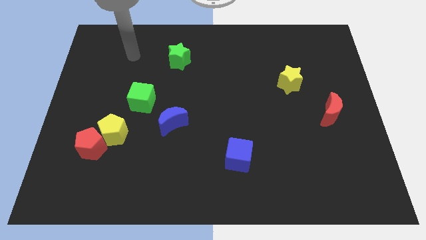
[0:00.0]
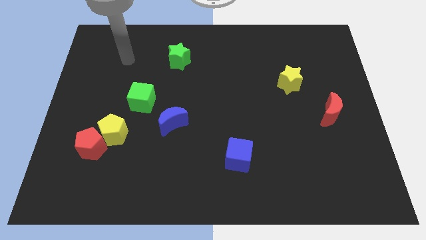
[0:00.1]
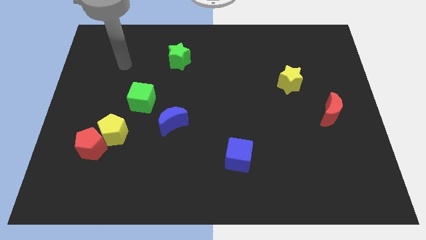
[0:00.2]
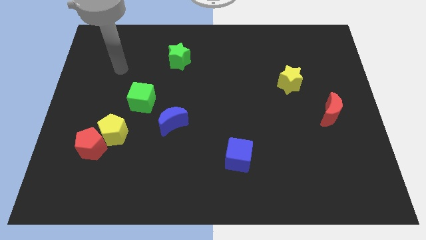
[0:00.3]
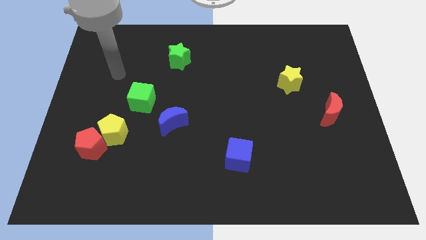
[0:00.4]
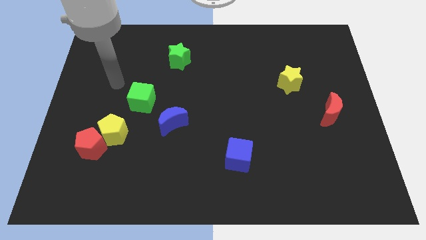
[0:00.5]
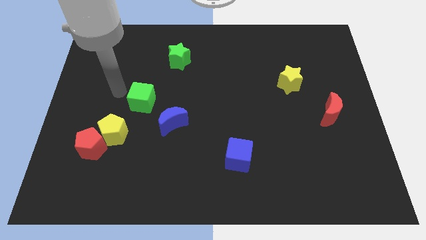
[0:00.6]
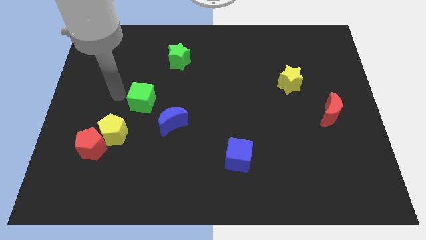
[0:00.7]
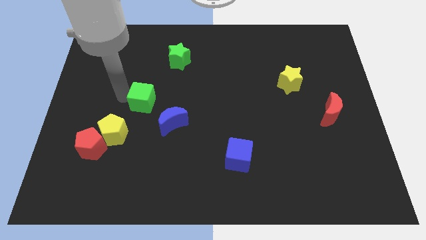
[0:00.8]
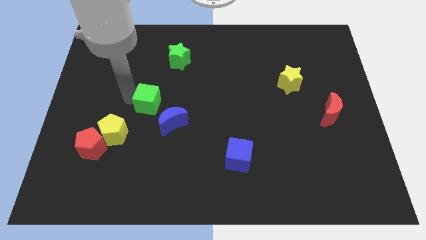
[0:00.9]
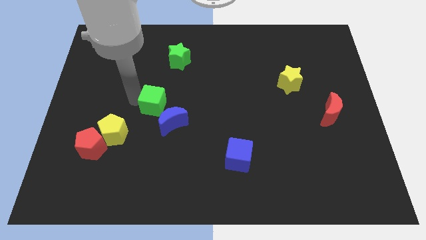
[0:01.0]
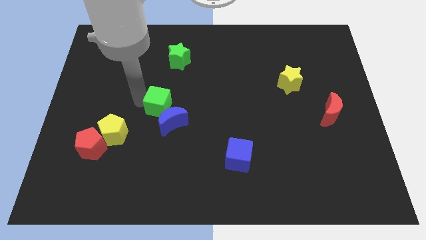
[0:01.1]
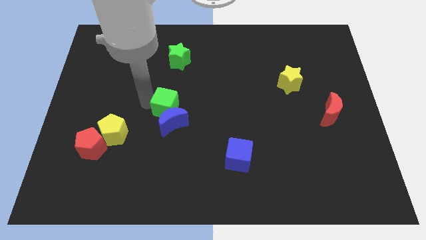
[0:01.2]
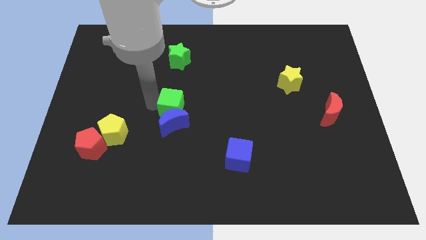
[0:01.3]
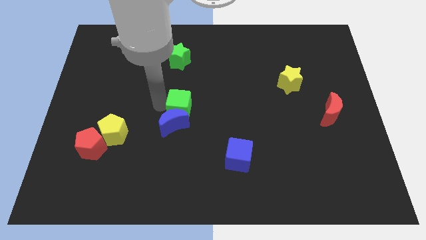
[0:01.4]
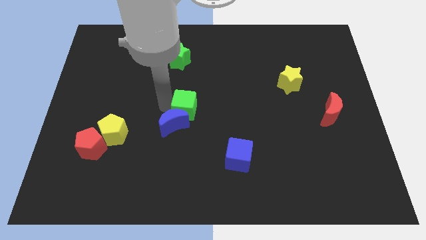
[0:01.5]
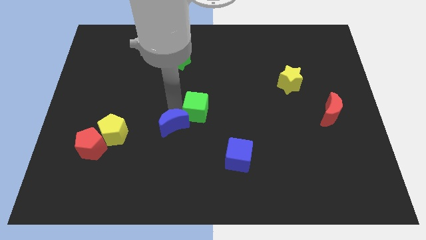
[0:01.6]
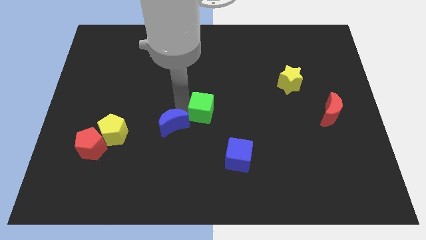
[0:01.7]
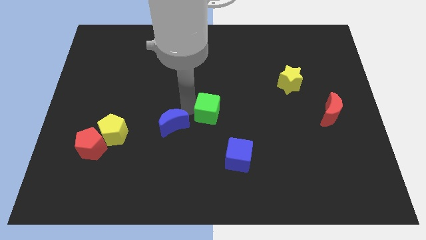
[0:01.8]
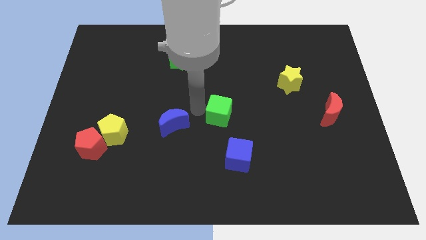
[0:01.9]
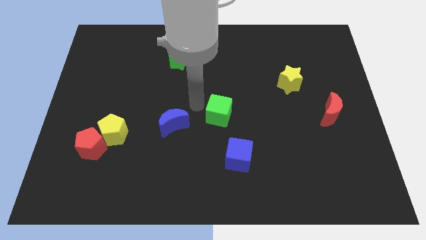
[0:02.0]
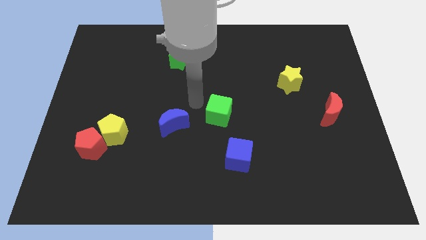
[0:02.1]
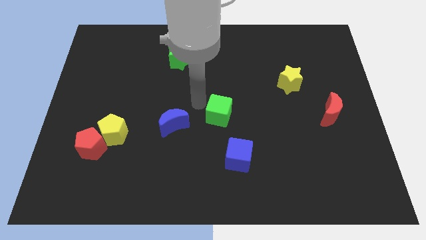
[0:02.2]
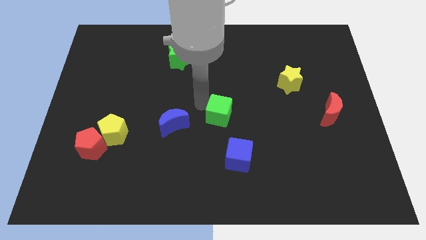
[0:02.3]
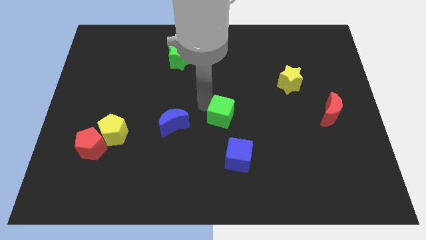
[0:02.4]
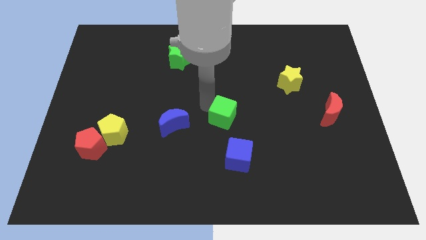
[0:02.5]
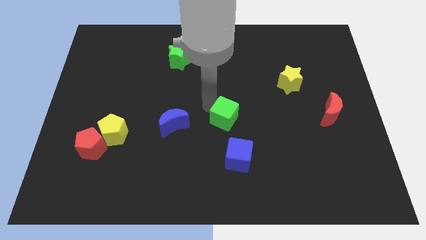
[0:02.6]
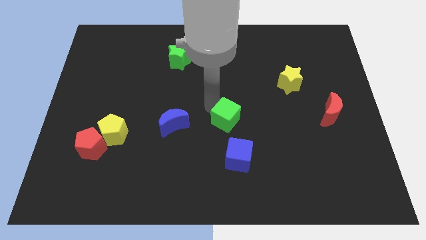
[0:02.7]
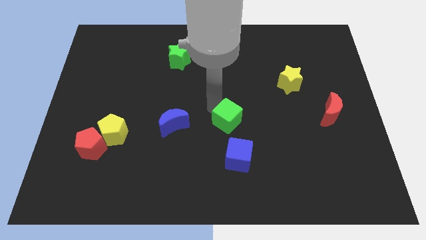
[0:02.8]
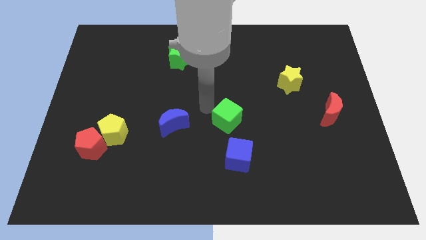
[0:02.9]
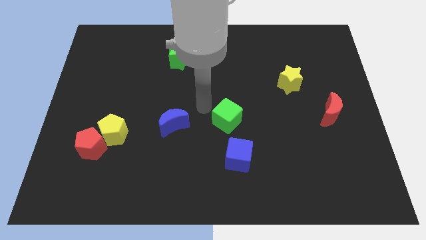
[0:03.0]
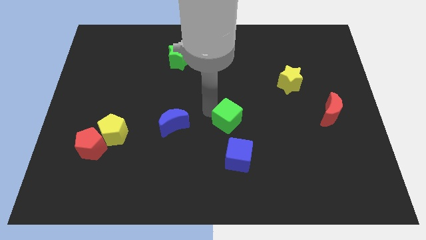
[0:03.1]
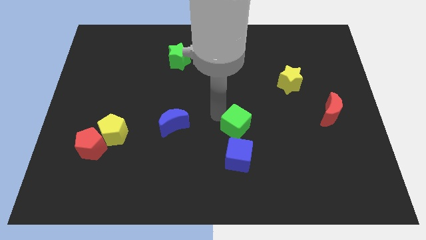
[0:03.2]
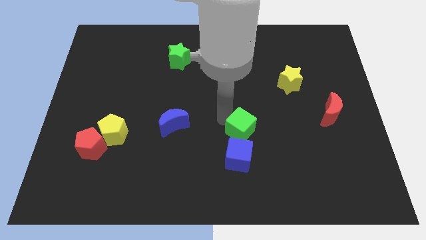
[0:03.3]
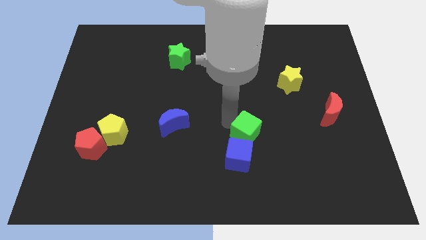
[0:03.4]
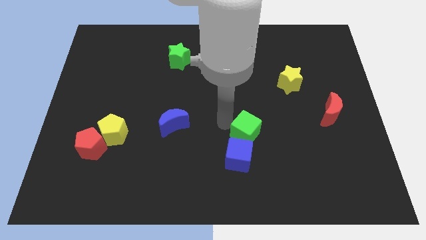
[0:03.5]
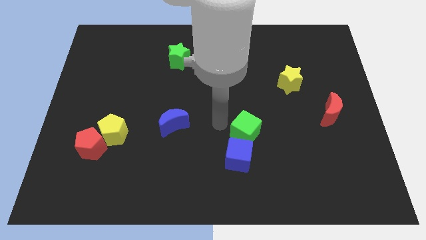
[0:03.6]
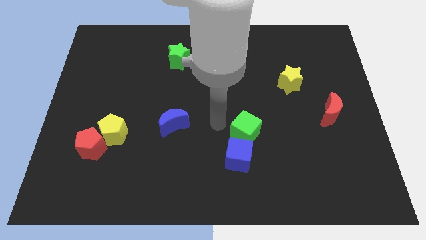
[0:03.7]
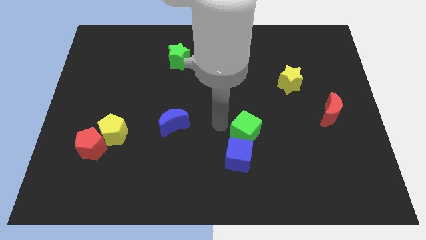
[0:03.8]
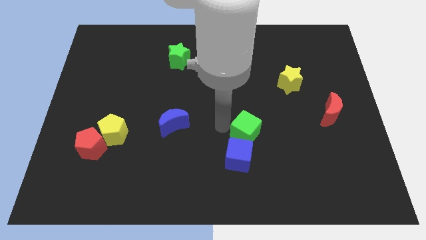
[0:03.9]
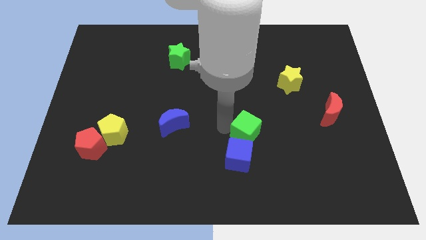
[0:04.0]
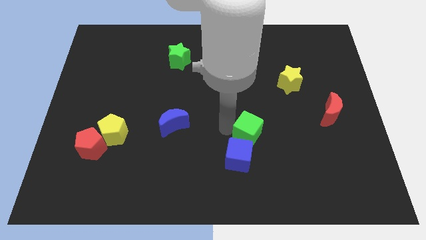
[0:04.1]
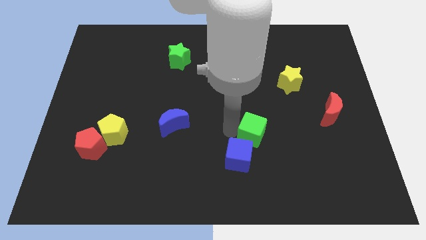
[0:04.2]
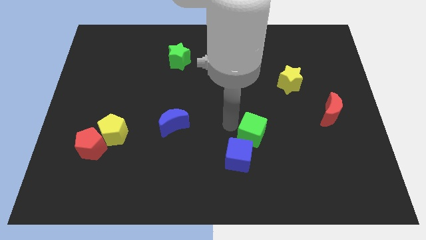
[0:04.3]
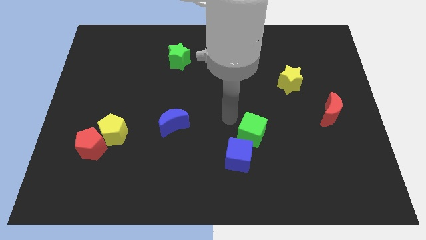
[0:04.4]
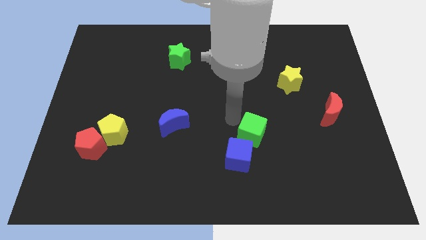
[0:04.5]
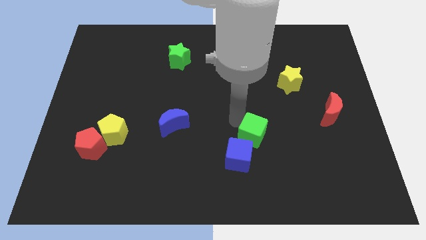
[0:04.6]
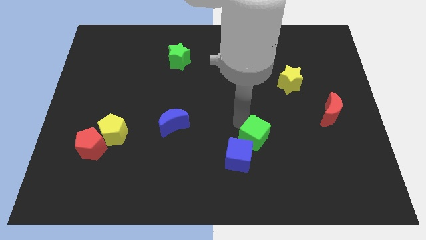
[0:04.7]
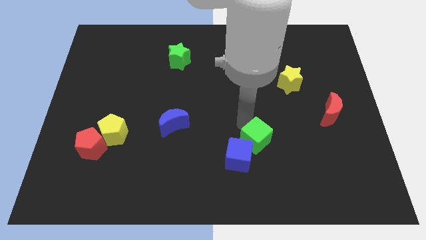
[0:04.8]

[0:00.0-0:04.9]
put the green cube to the right of the blue cube

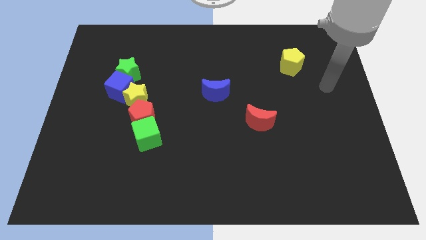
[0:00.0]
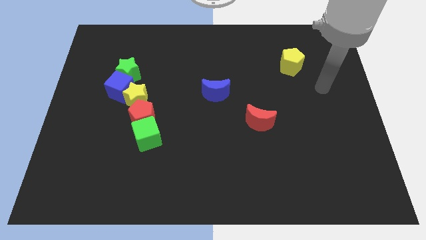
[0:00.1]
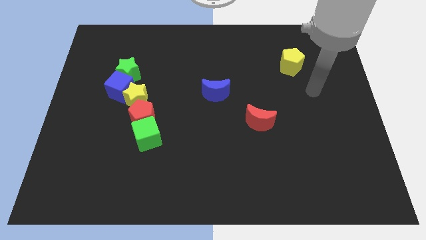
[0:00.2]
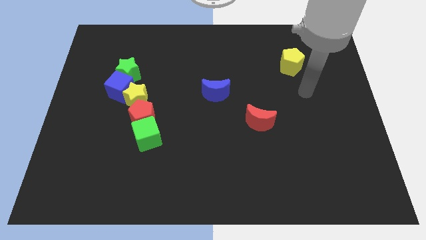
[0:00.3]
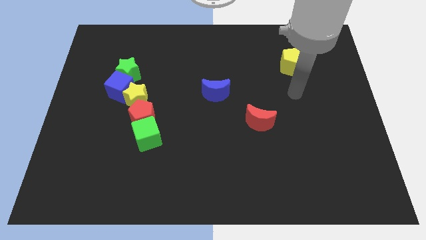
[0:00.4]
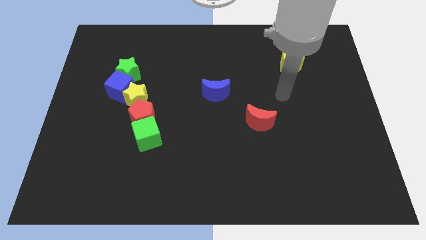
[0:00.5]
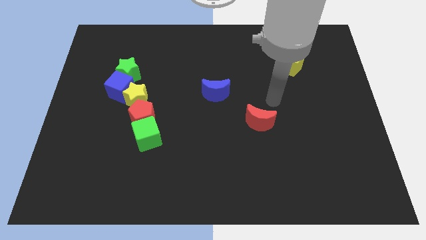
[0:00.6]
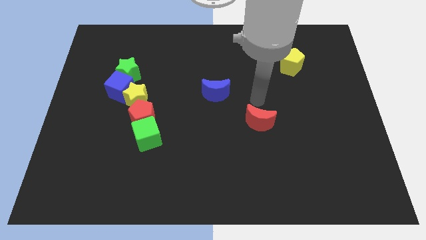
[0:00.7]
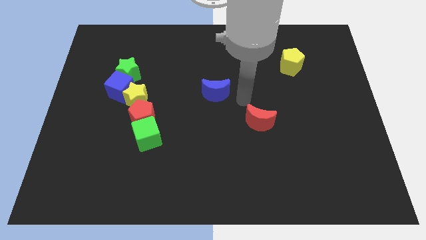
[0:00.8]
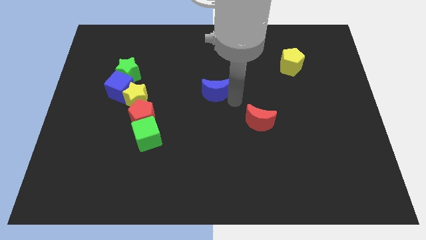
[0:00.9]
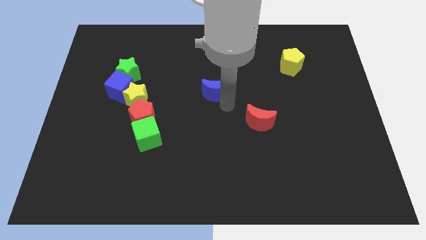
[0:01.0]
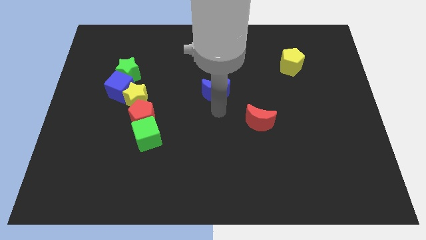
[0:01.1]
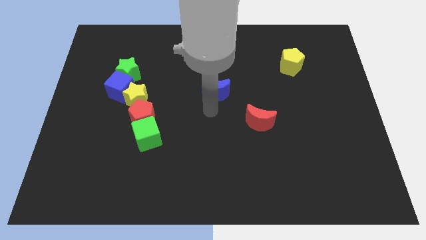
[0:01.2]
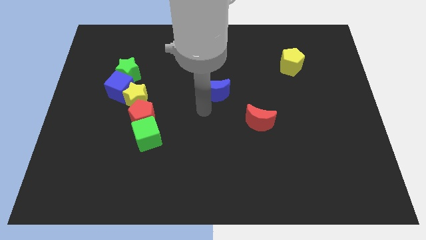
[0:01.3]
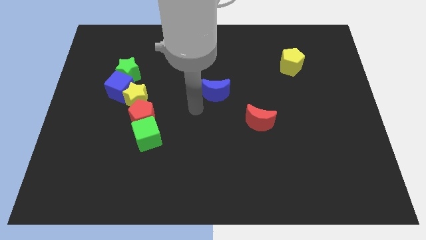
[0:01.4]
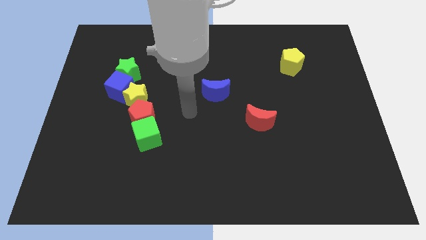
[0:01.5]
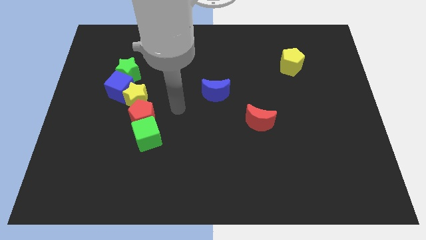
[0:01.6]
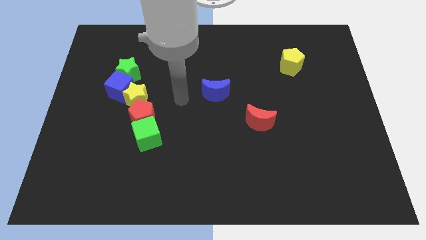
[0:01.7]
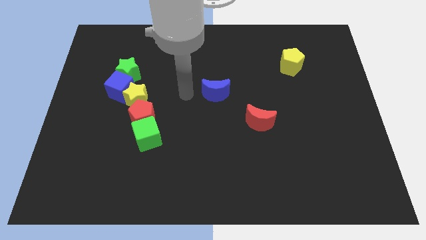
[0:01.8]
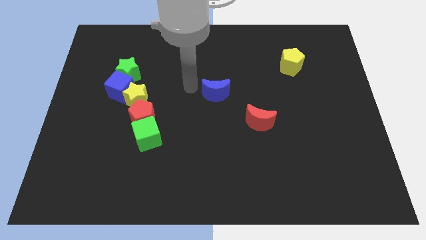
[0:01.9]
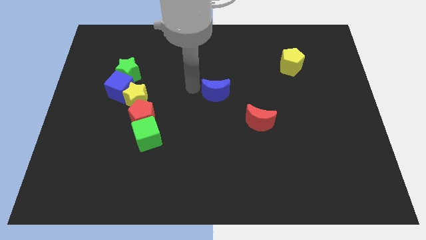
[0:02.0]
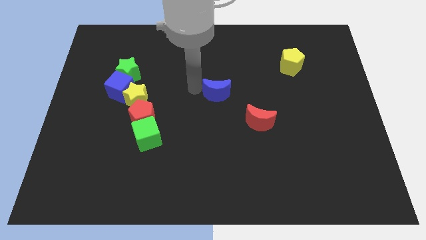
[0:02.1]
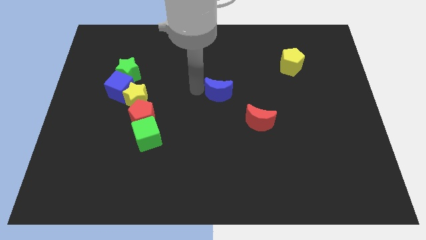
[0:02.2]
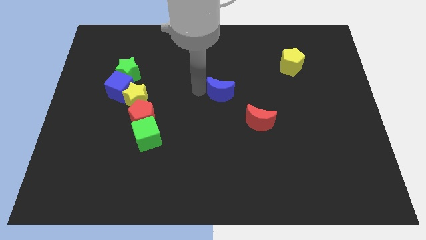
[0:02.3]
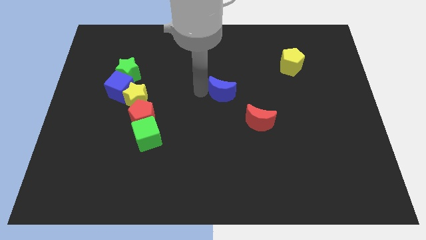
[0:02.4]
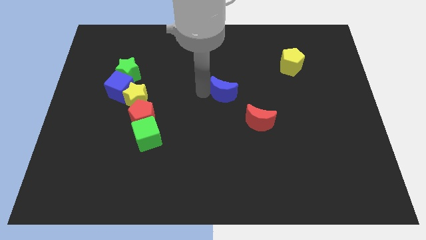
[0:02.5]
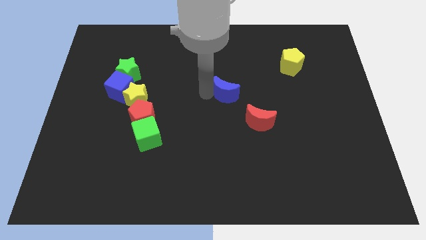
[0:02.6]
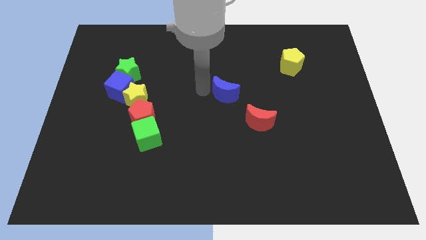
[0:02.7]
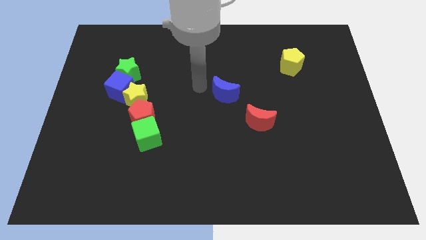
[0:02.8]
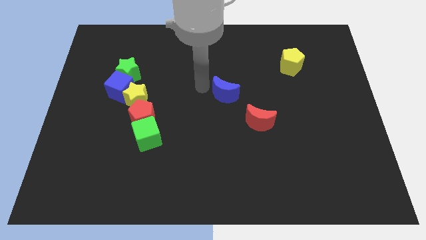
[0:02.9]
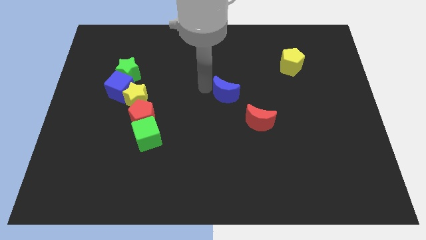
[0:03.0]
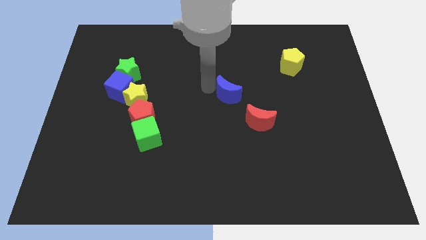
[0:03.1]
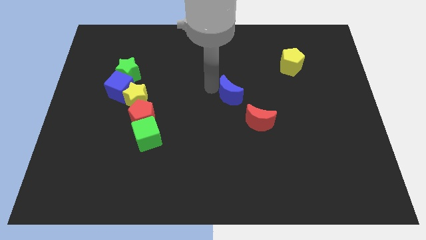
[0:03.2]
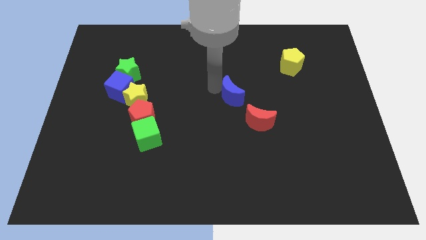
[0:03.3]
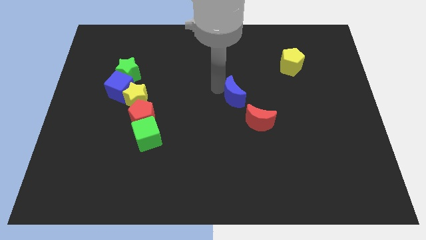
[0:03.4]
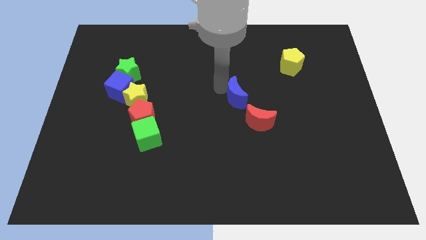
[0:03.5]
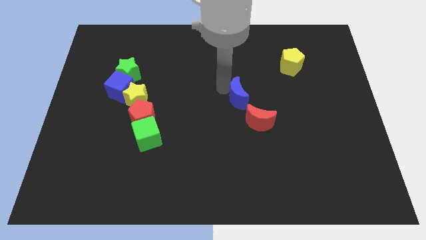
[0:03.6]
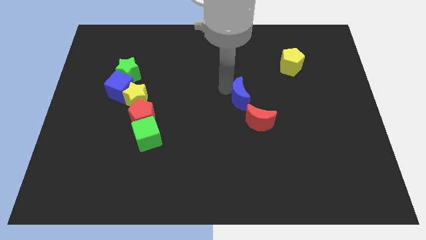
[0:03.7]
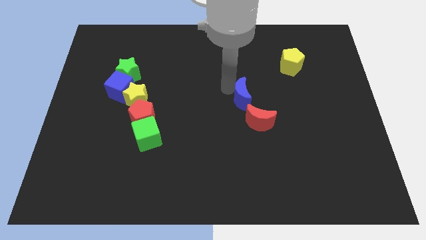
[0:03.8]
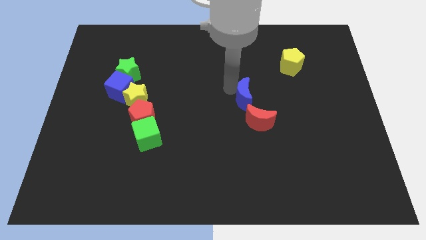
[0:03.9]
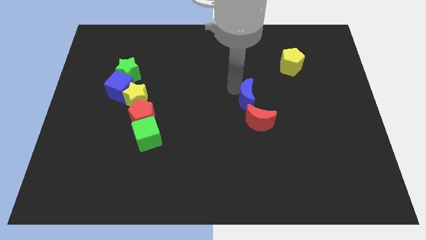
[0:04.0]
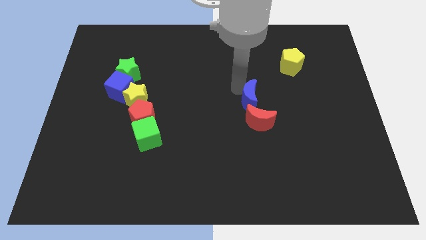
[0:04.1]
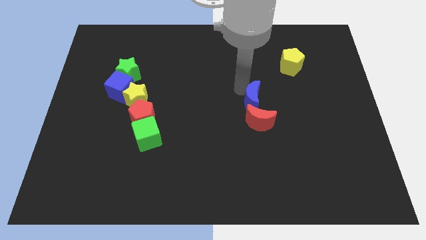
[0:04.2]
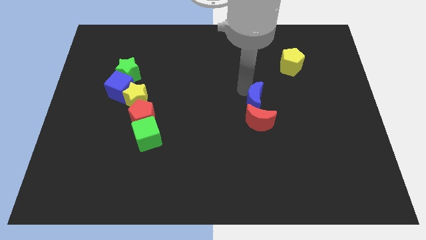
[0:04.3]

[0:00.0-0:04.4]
move the blue moon to the top right side of the red moon
